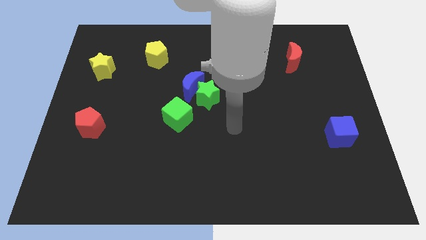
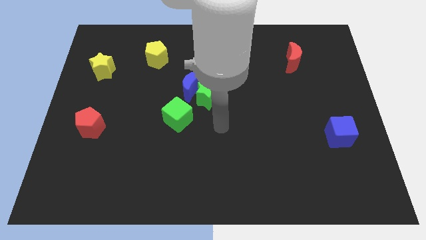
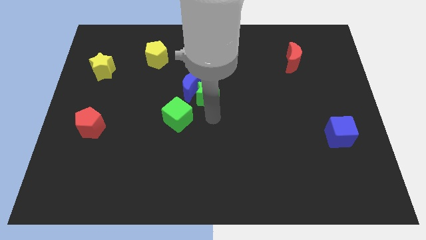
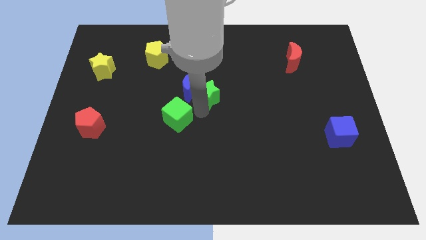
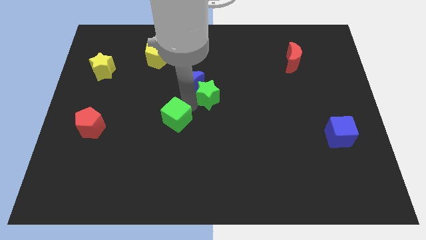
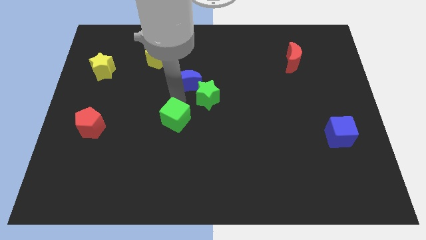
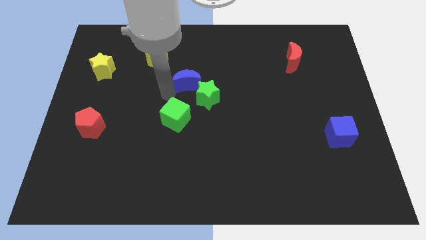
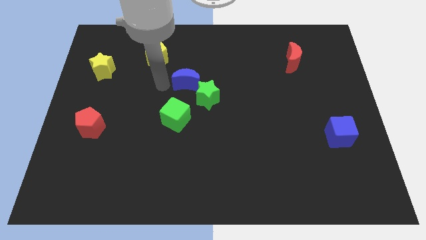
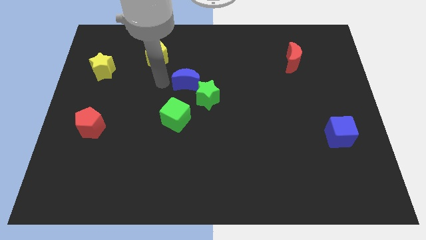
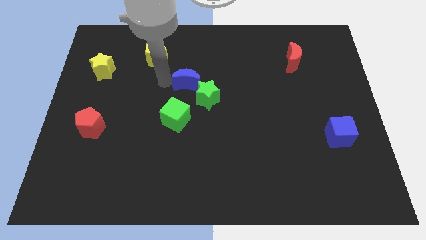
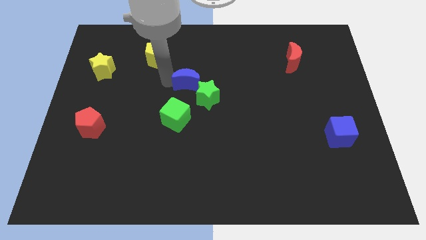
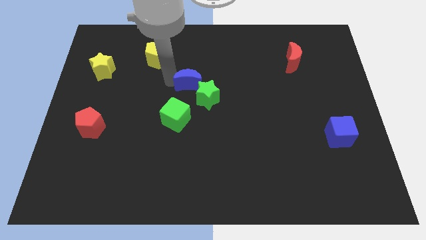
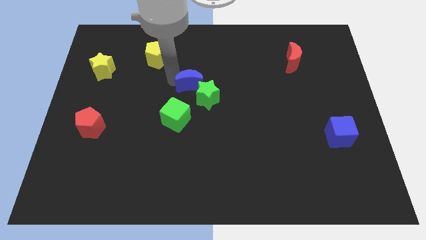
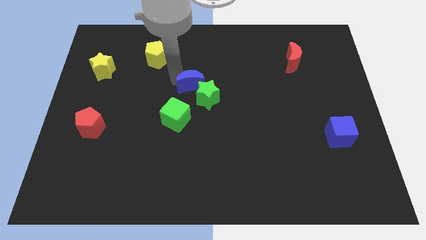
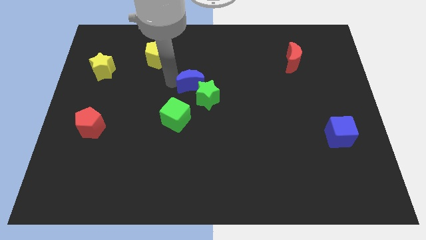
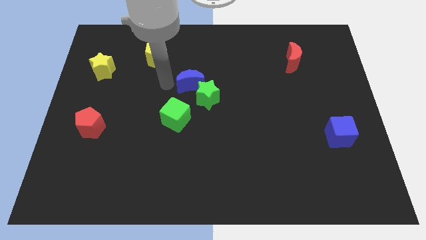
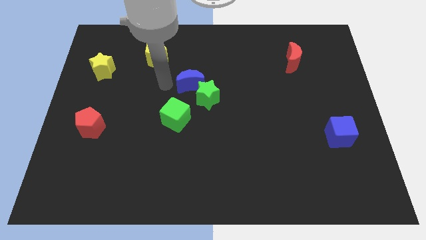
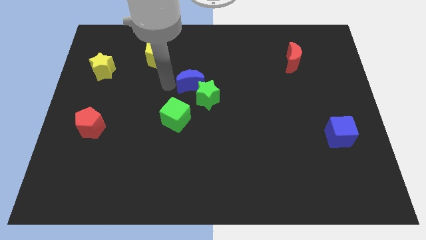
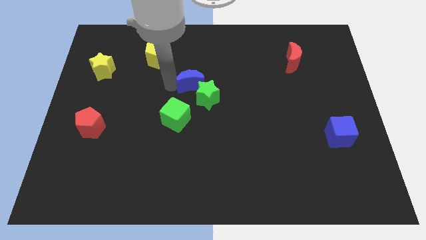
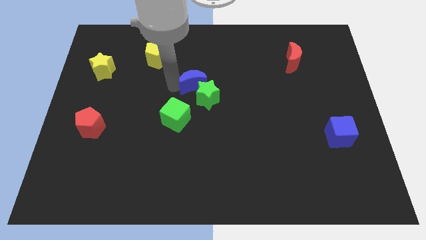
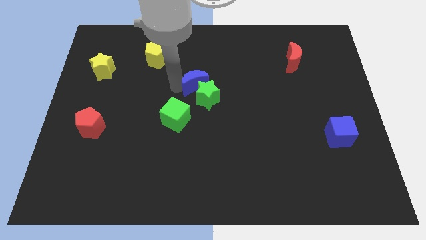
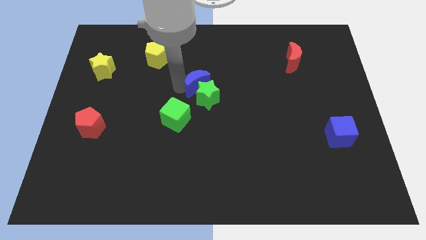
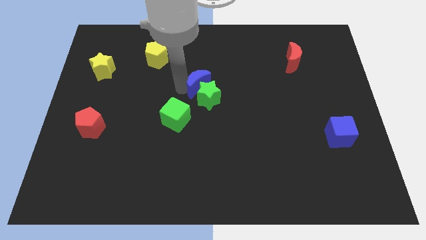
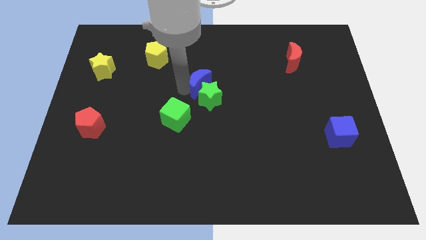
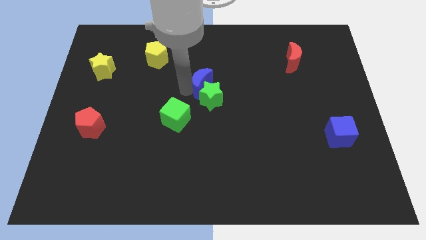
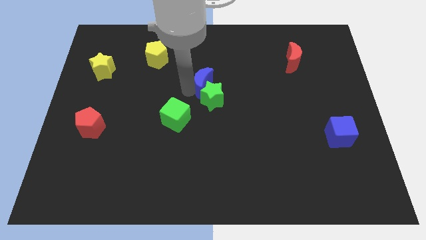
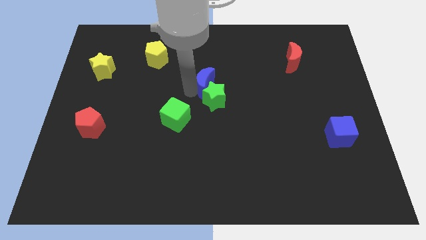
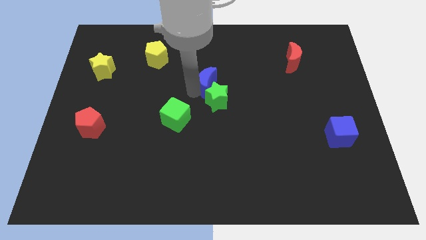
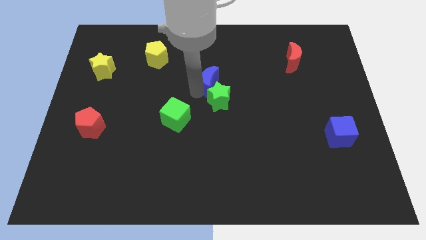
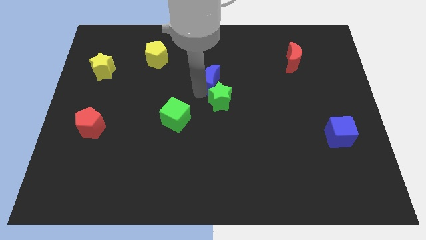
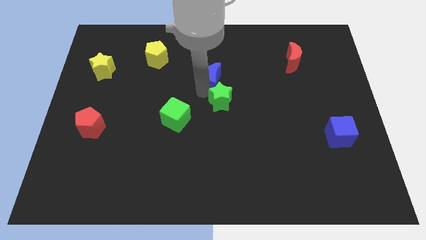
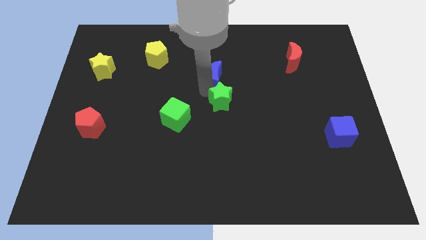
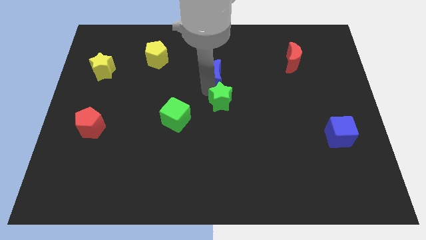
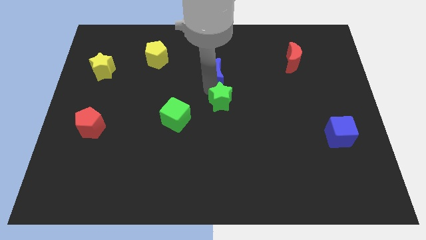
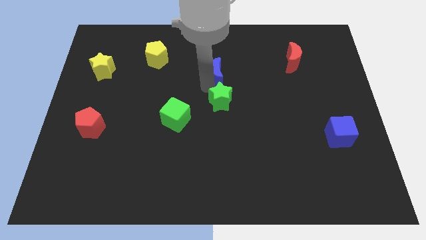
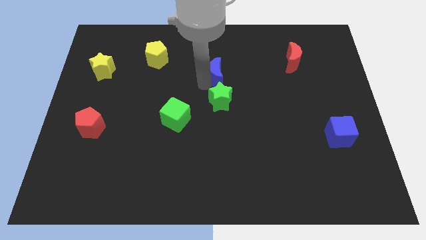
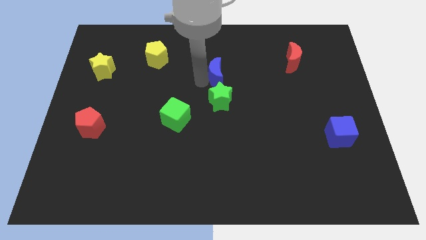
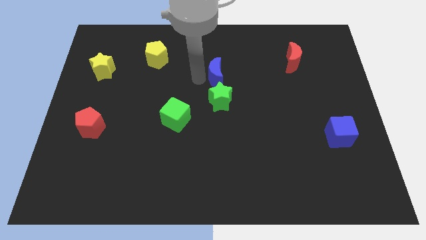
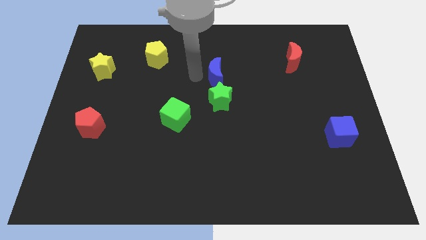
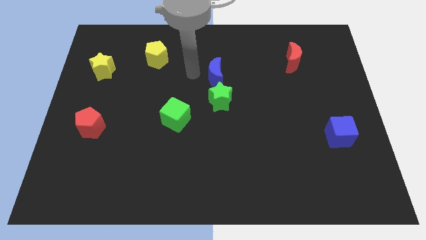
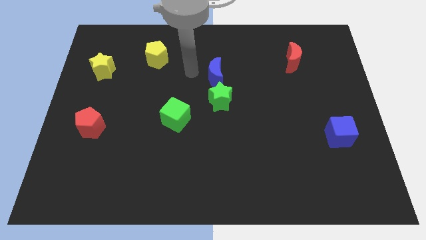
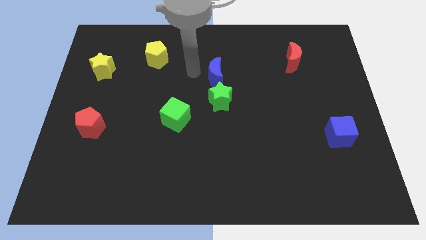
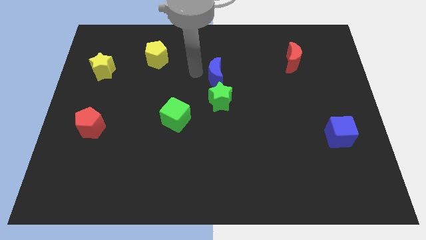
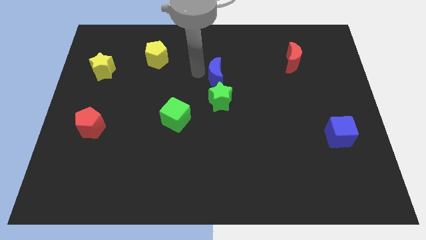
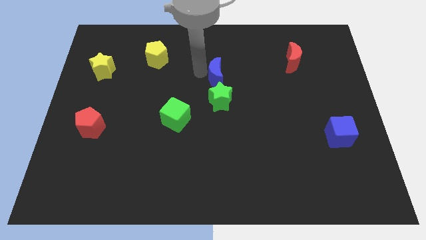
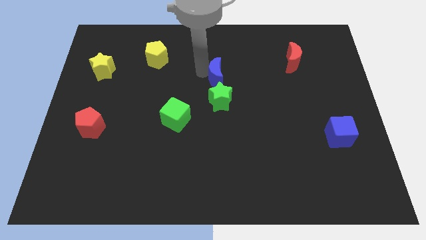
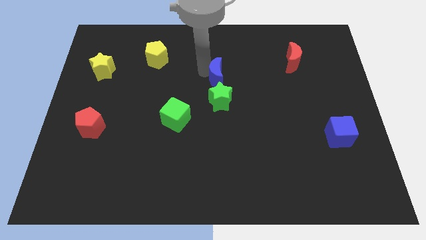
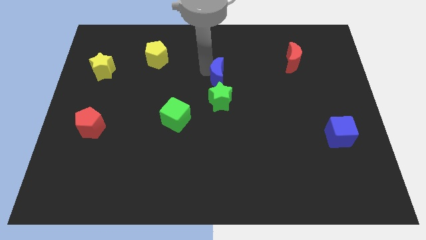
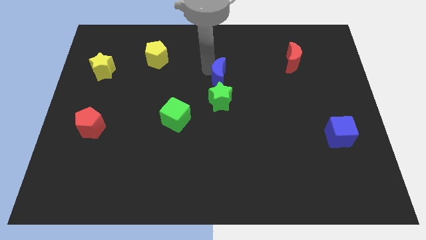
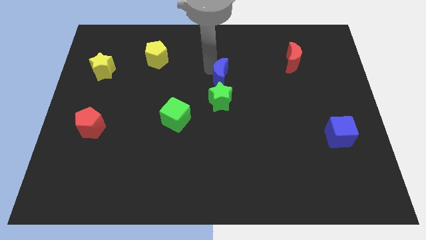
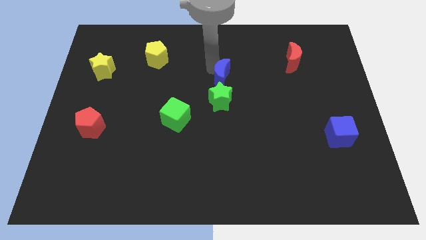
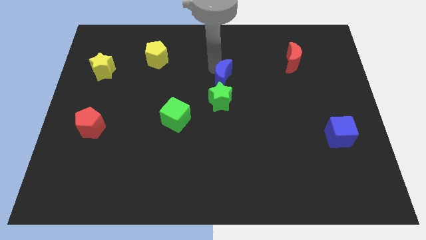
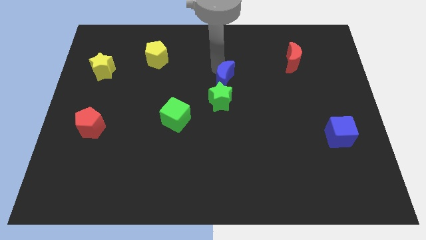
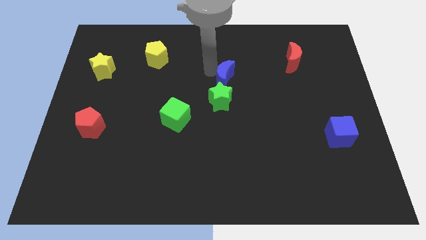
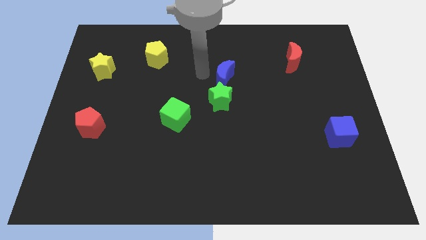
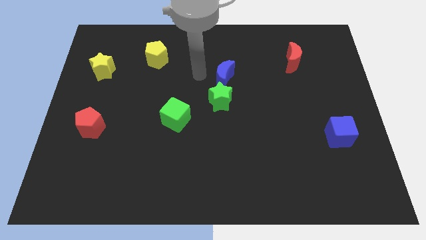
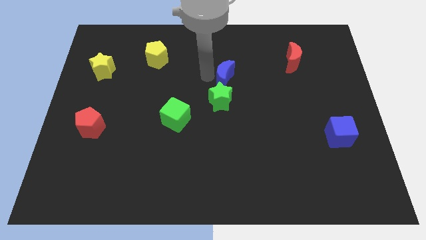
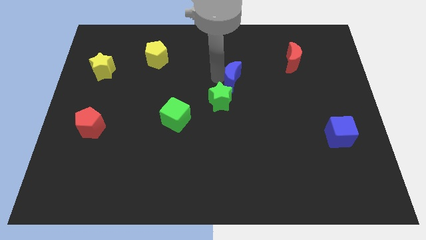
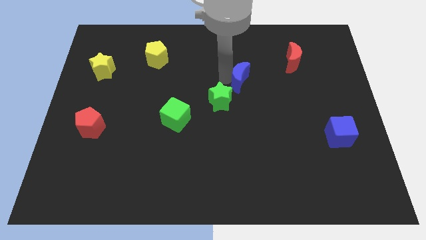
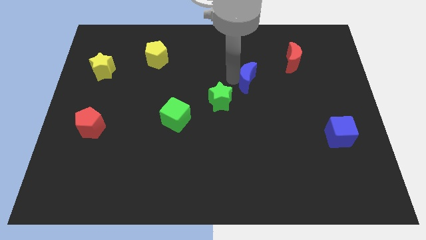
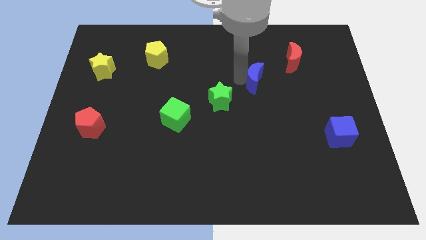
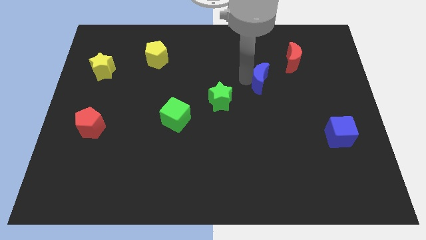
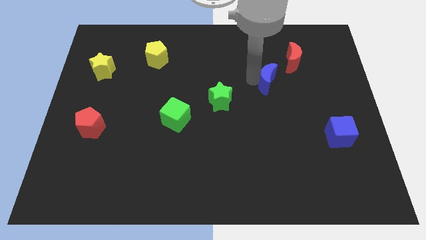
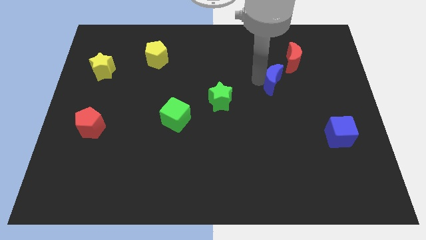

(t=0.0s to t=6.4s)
move the blue moon to the right

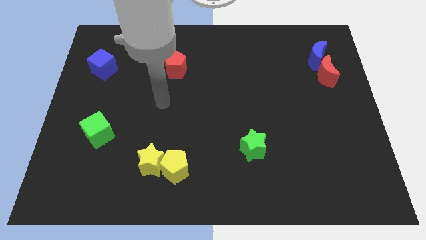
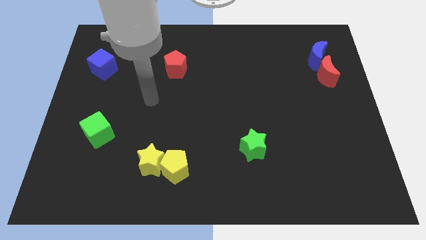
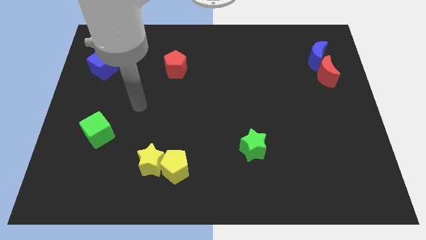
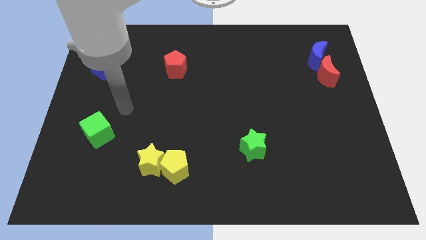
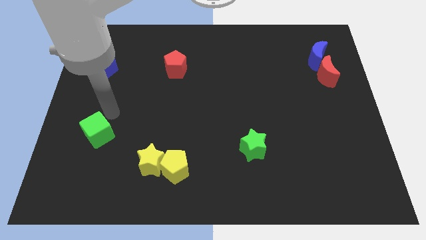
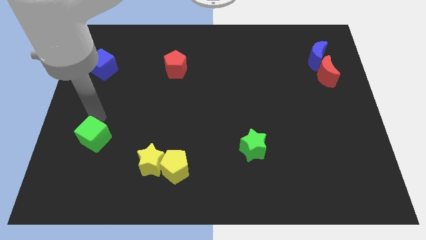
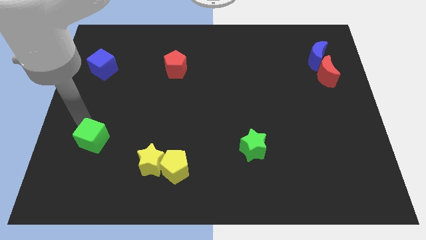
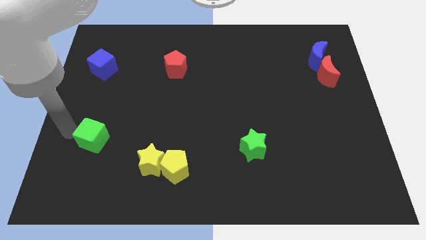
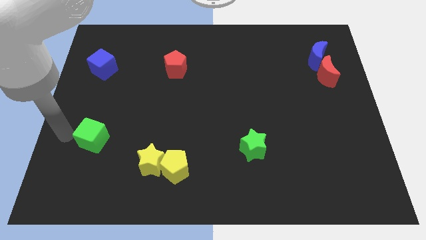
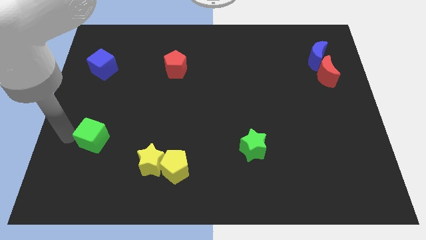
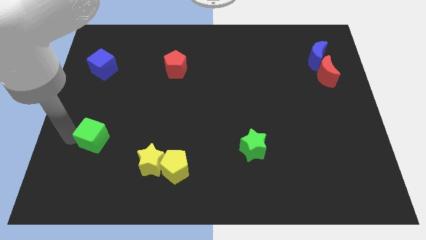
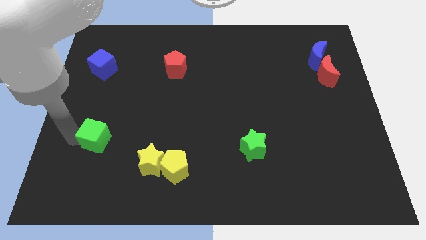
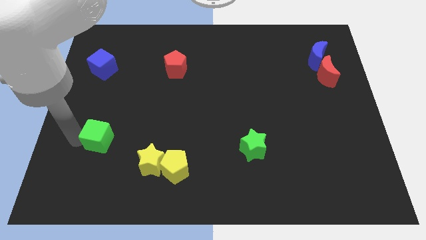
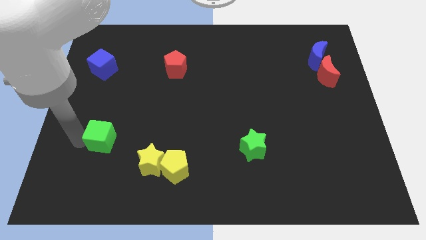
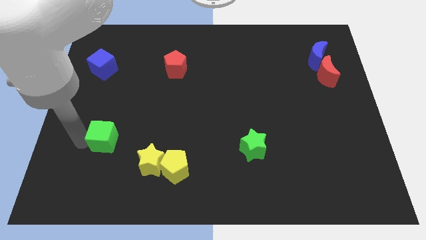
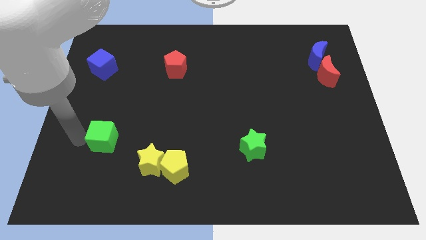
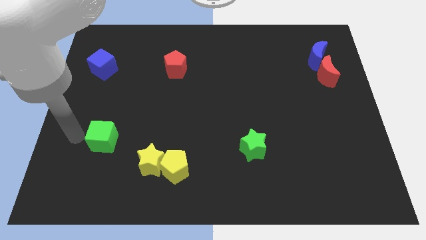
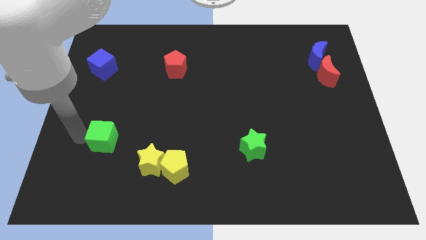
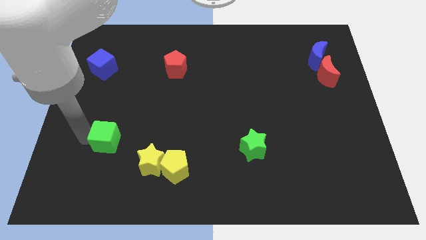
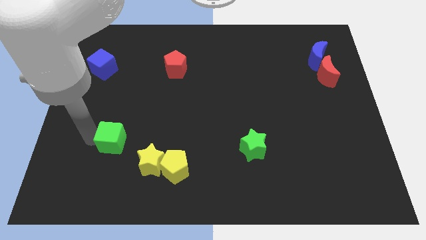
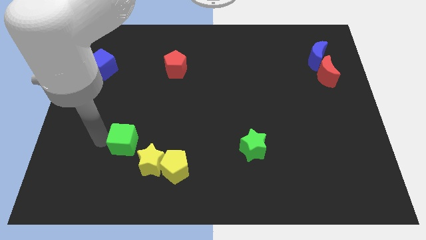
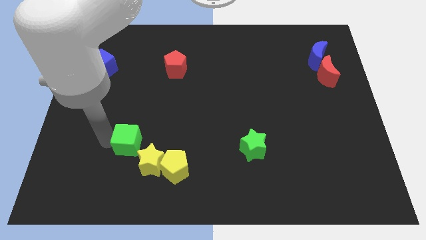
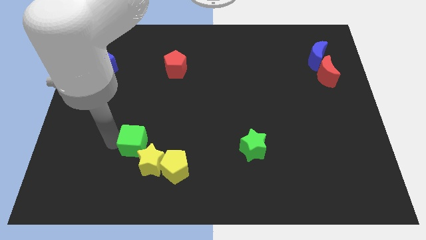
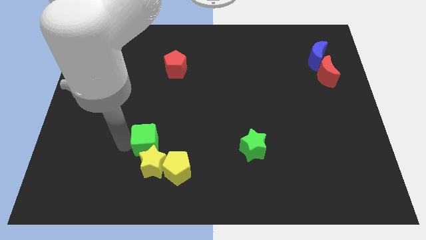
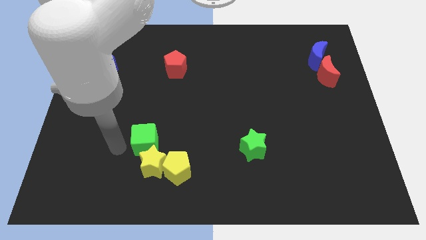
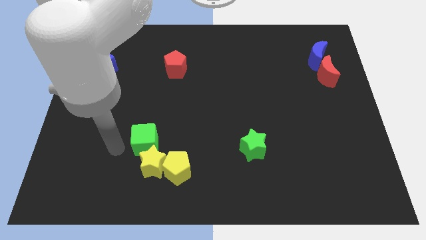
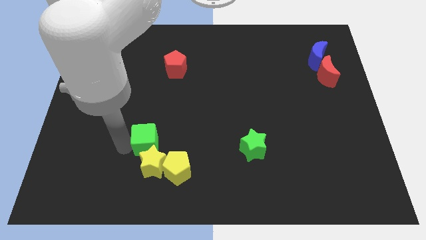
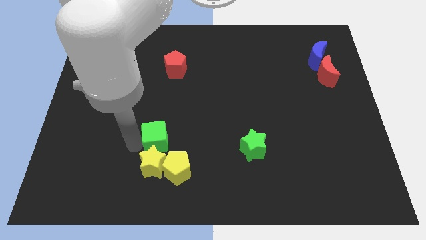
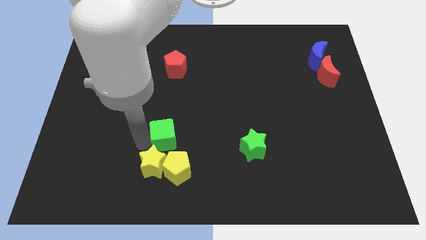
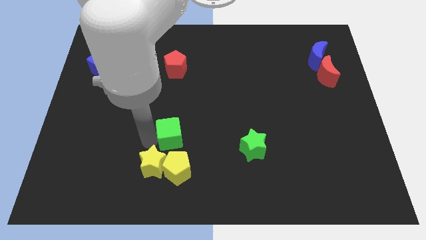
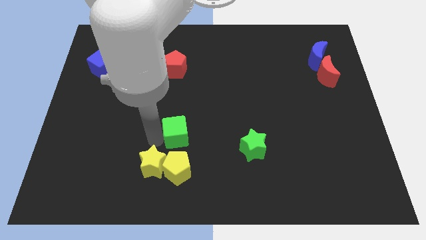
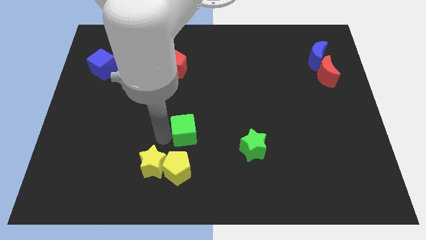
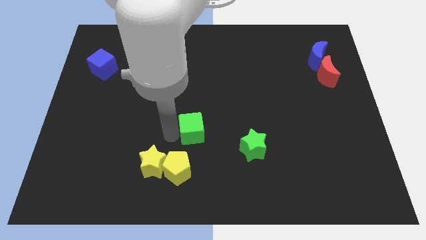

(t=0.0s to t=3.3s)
slide the green cube right
